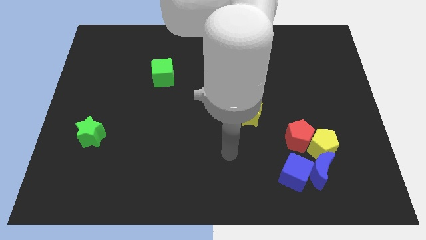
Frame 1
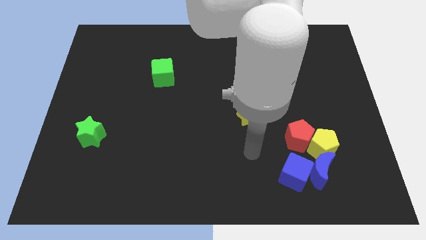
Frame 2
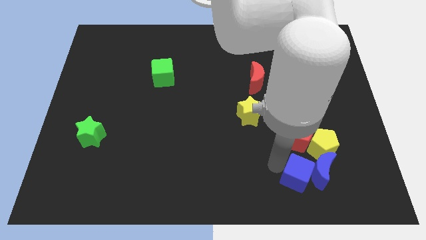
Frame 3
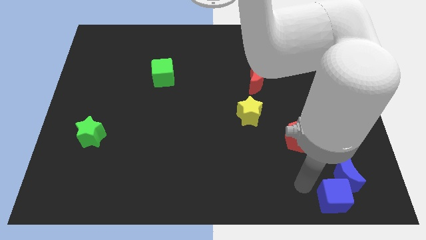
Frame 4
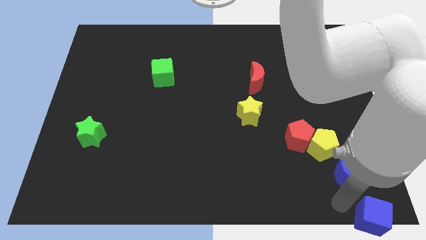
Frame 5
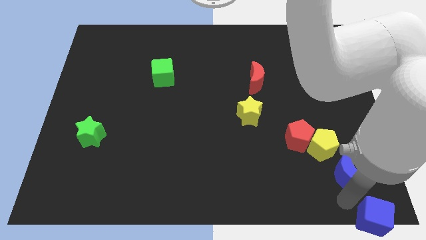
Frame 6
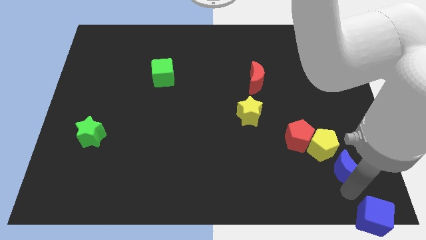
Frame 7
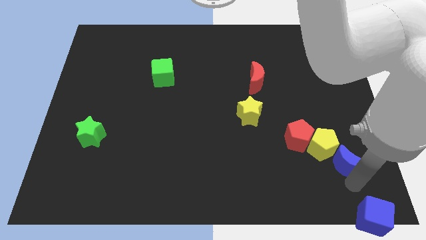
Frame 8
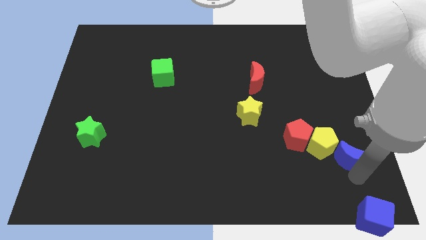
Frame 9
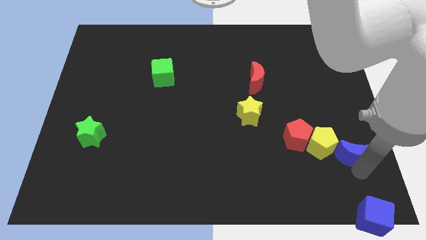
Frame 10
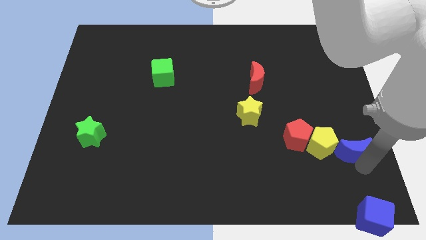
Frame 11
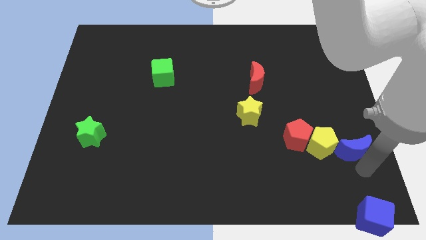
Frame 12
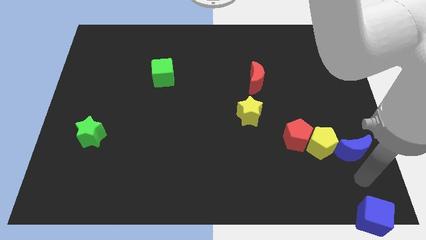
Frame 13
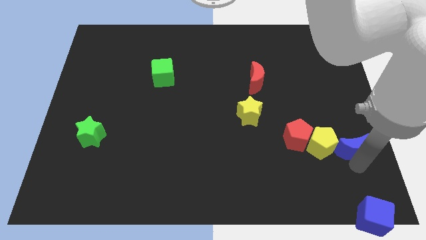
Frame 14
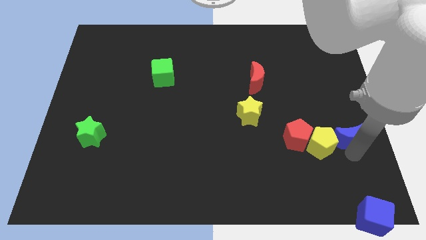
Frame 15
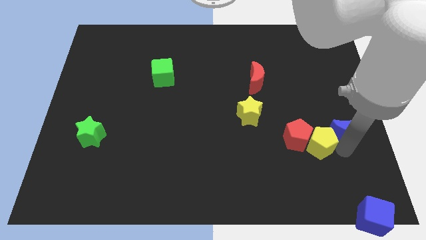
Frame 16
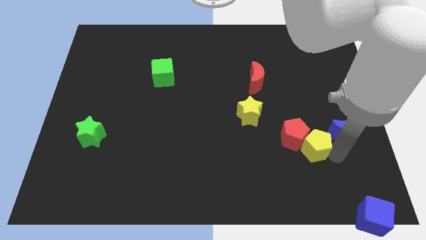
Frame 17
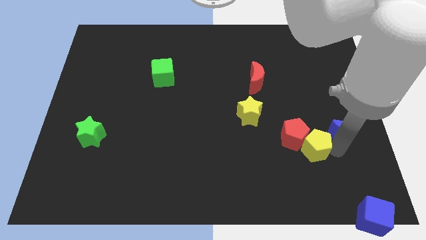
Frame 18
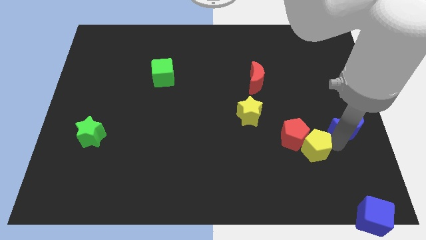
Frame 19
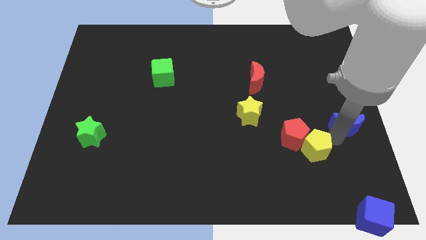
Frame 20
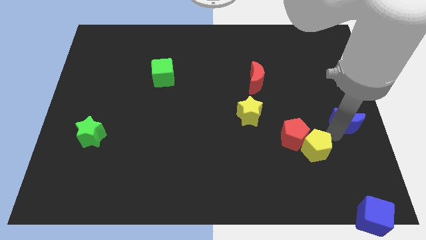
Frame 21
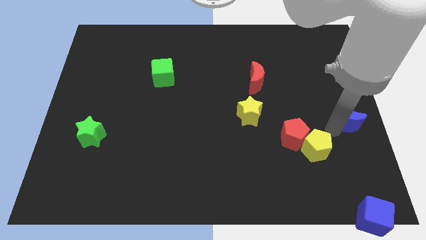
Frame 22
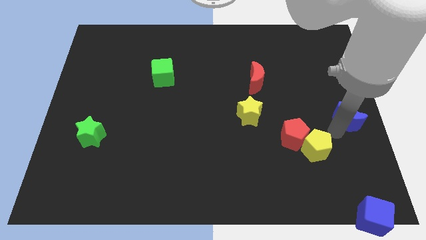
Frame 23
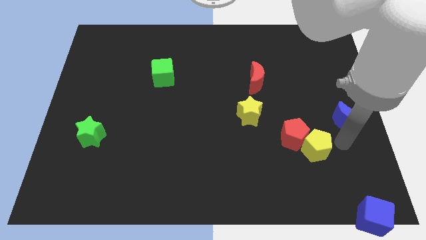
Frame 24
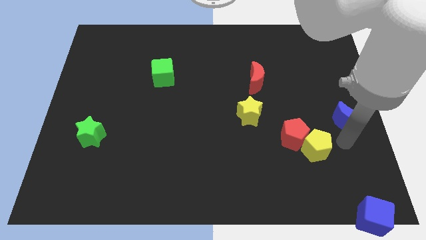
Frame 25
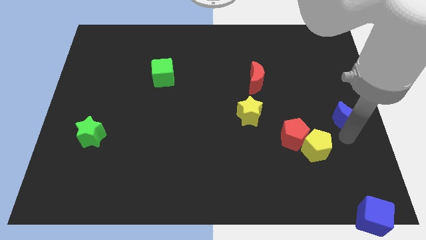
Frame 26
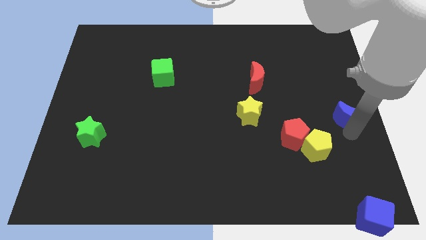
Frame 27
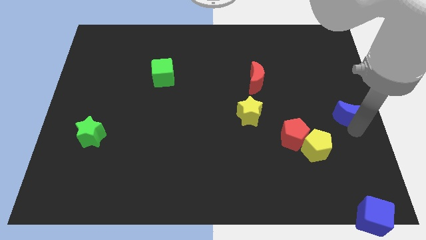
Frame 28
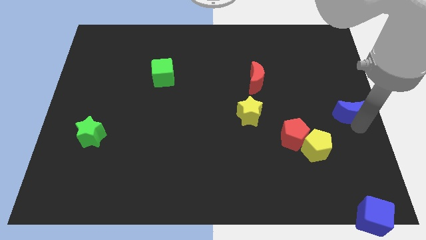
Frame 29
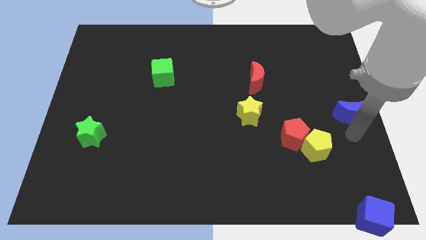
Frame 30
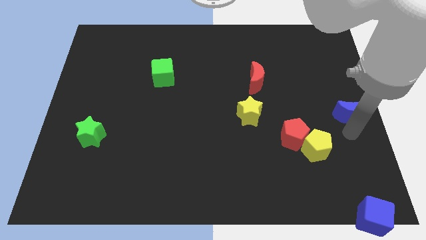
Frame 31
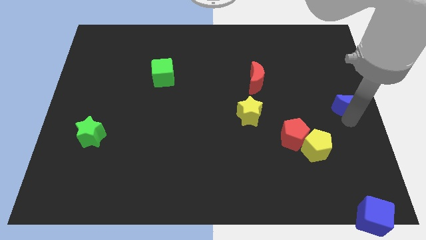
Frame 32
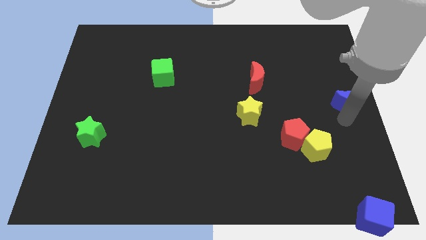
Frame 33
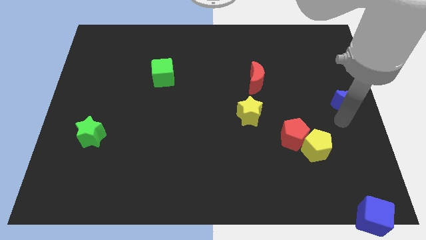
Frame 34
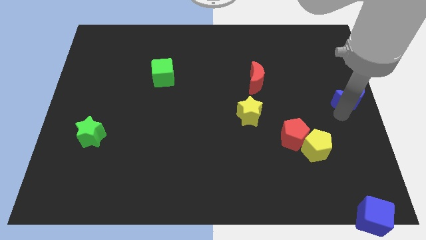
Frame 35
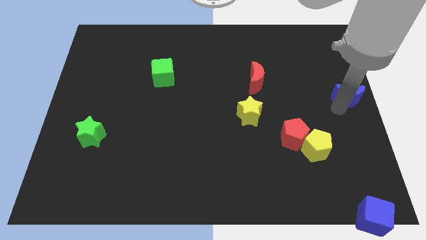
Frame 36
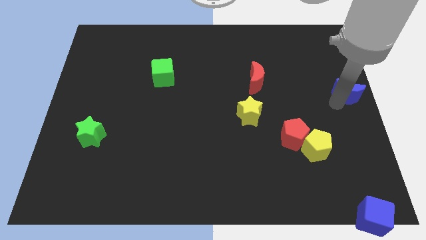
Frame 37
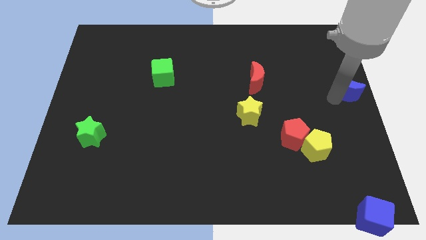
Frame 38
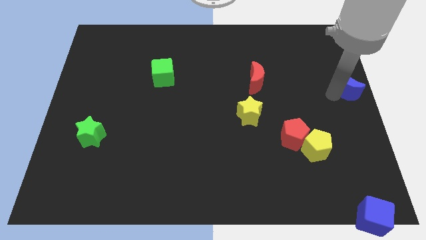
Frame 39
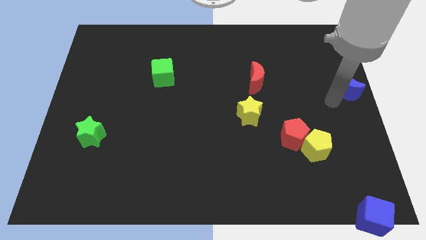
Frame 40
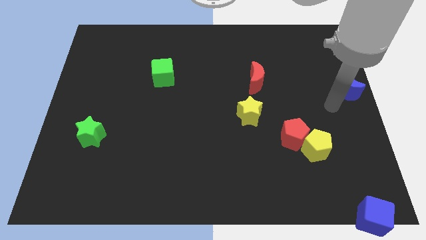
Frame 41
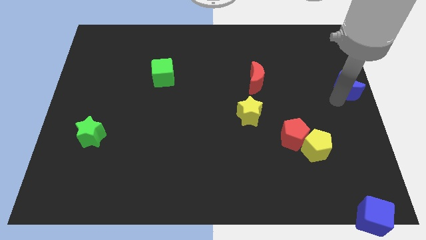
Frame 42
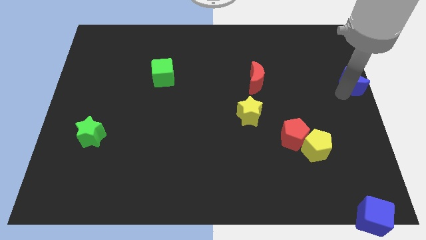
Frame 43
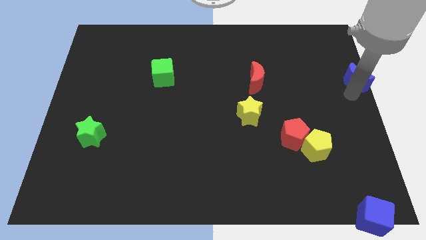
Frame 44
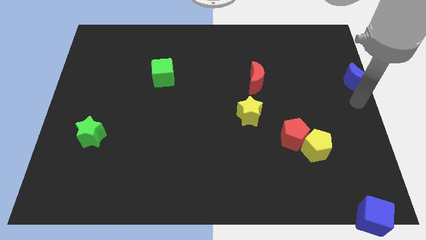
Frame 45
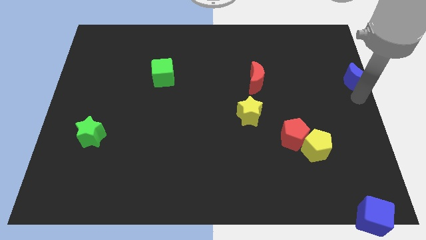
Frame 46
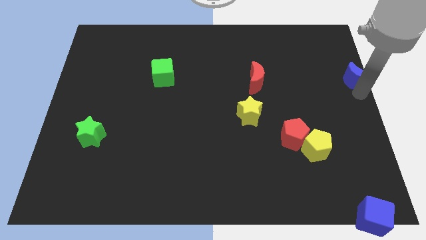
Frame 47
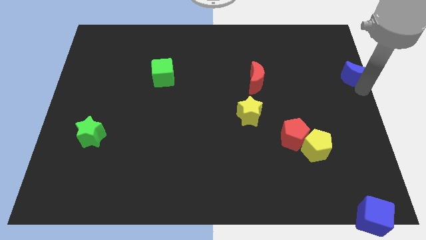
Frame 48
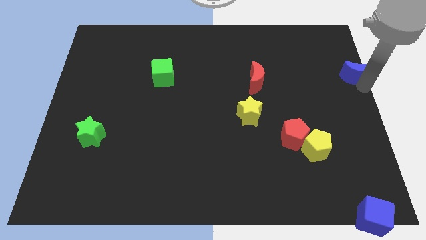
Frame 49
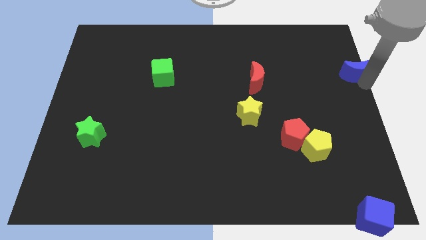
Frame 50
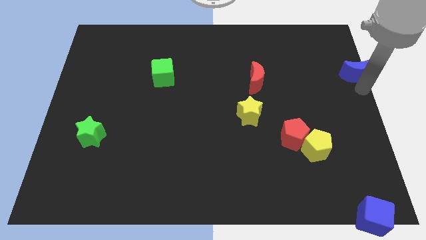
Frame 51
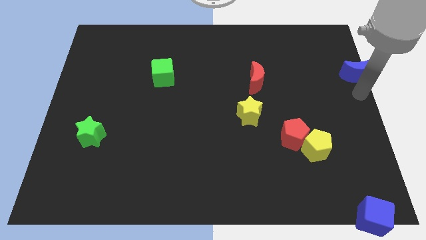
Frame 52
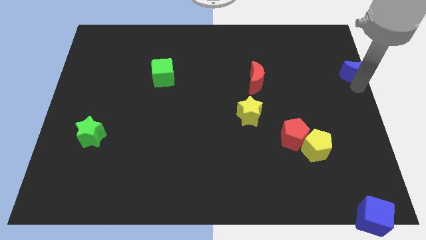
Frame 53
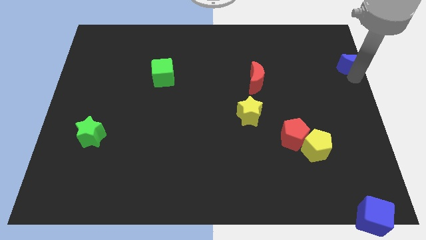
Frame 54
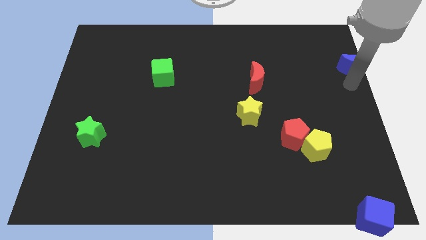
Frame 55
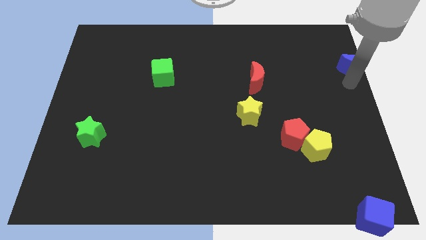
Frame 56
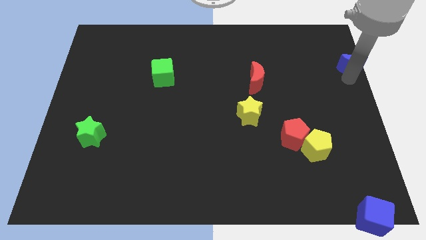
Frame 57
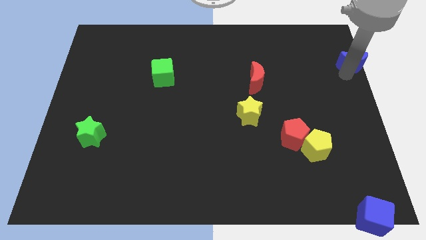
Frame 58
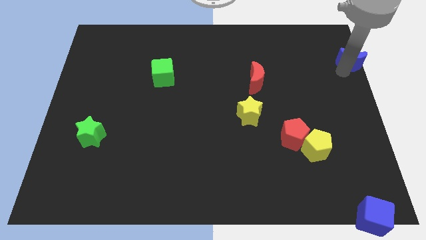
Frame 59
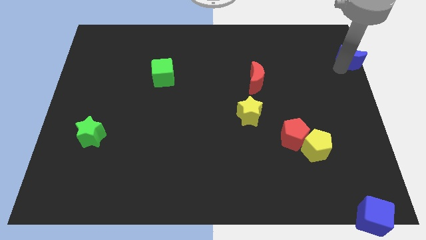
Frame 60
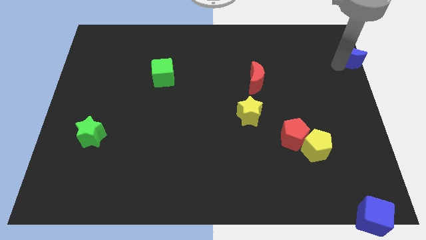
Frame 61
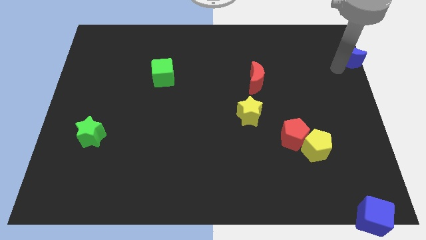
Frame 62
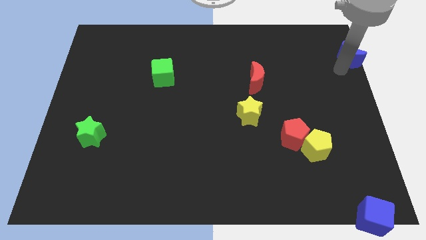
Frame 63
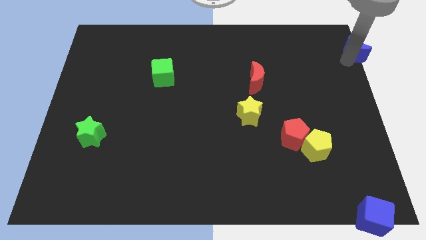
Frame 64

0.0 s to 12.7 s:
move the blue moon to the top right of the board
